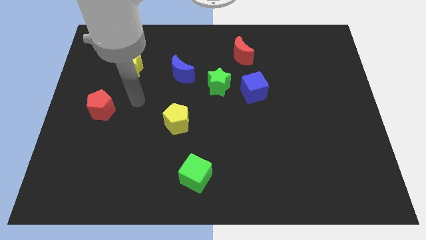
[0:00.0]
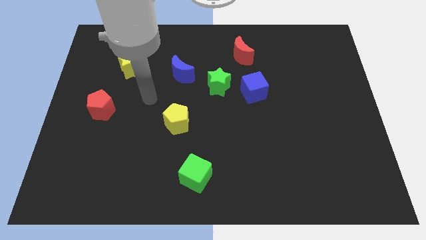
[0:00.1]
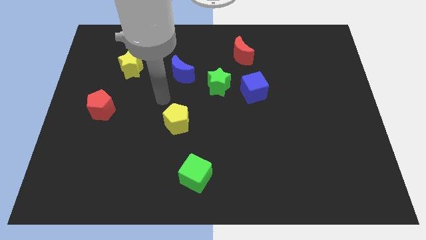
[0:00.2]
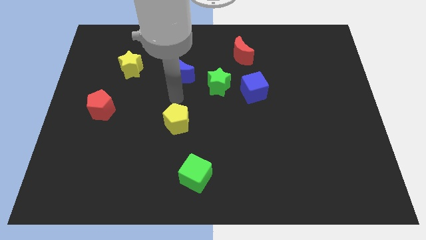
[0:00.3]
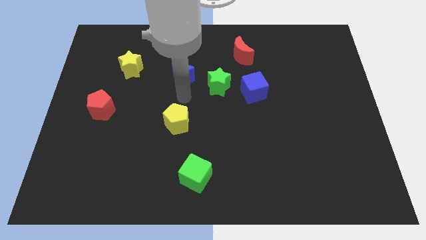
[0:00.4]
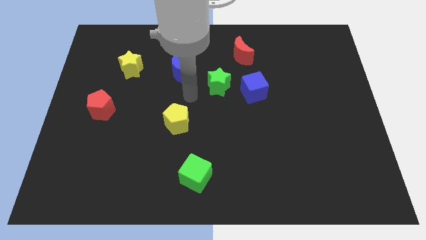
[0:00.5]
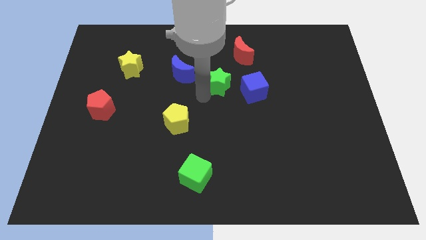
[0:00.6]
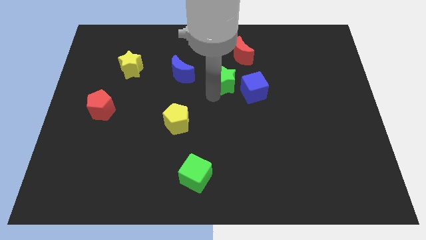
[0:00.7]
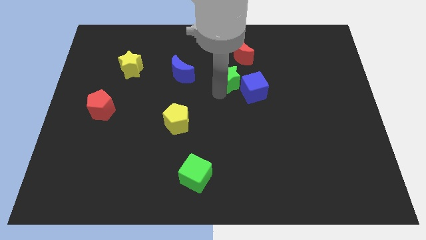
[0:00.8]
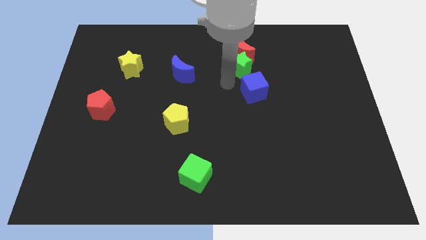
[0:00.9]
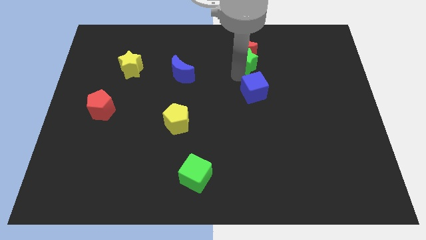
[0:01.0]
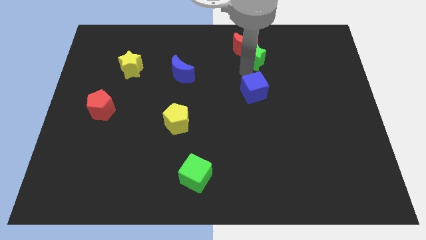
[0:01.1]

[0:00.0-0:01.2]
pull the blue cube apart from the green star

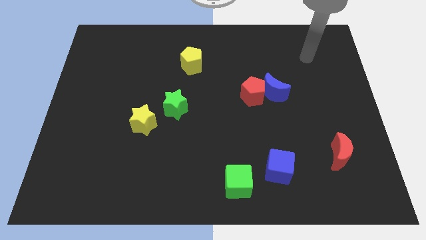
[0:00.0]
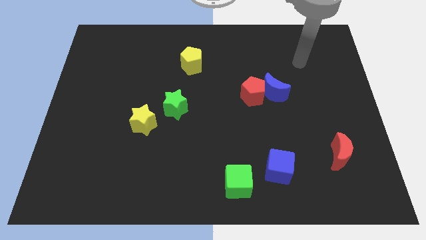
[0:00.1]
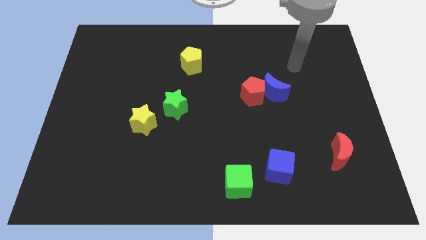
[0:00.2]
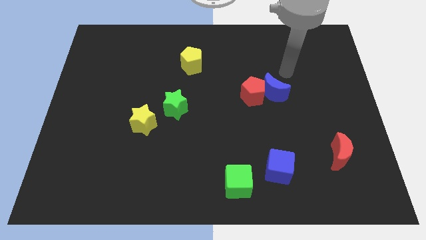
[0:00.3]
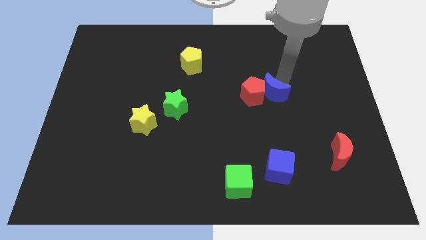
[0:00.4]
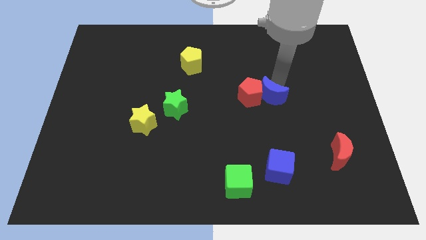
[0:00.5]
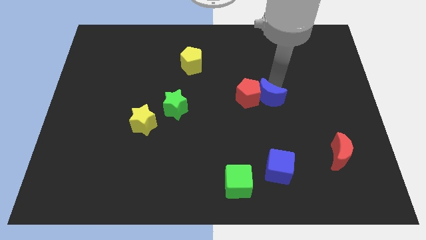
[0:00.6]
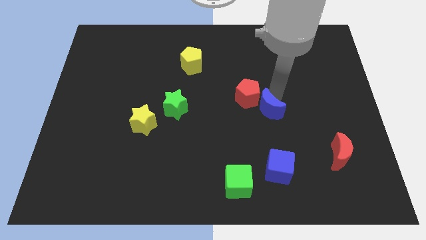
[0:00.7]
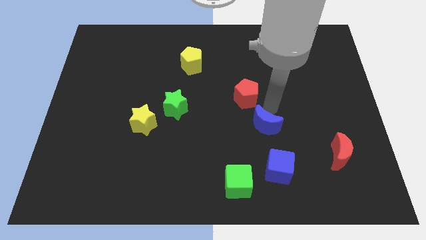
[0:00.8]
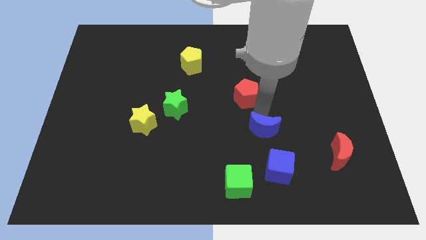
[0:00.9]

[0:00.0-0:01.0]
move the red pentagon away from the blue moon

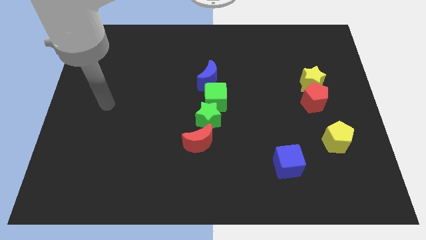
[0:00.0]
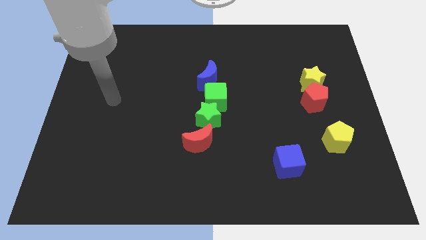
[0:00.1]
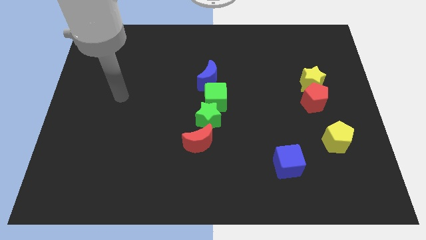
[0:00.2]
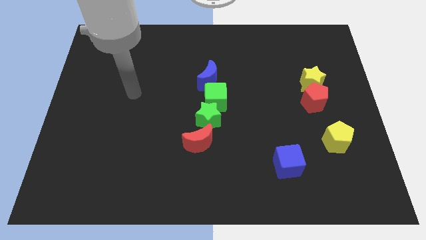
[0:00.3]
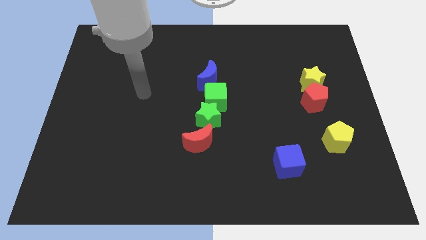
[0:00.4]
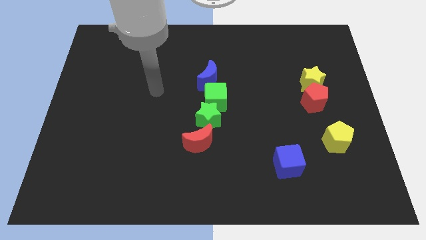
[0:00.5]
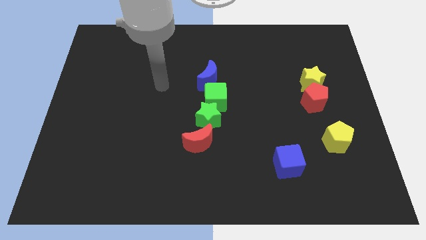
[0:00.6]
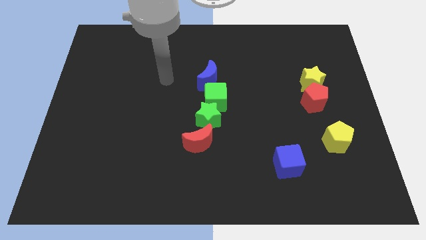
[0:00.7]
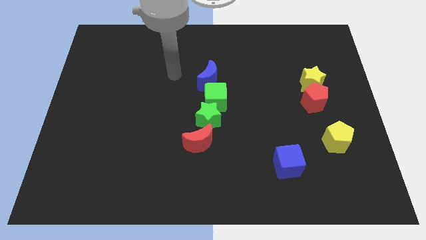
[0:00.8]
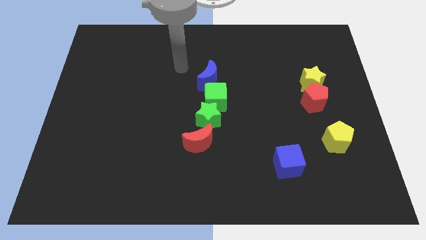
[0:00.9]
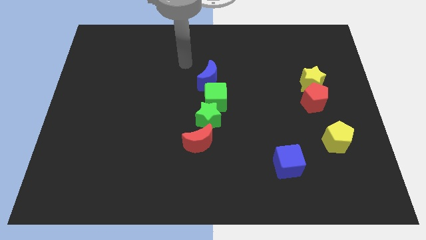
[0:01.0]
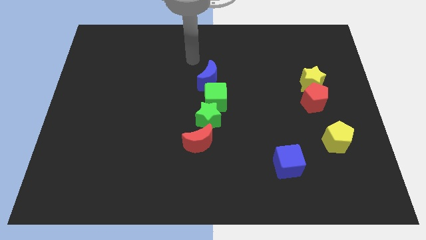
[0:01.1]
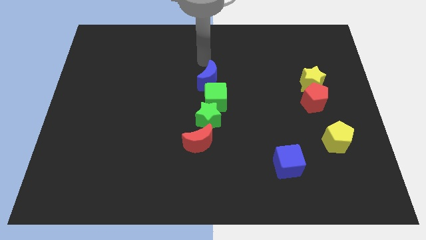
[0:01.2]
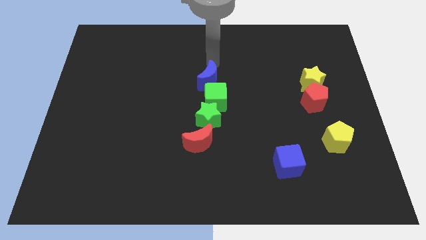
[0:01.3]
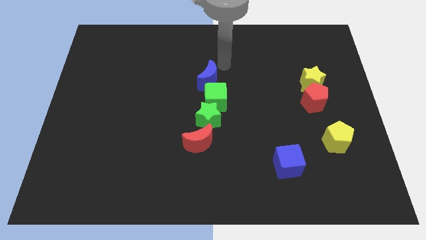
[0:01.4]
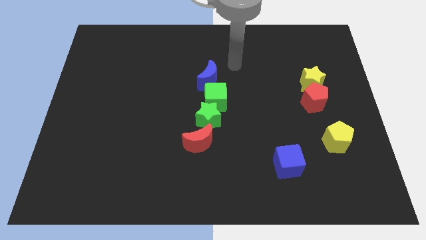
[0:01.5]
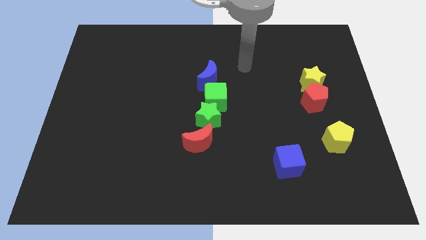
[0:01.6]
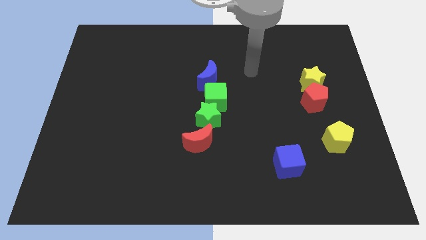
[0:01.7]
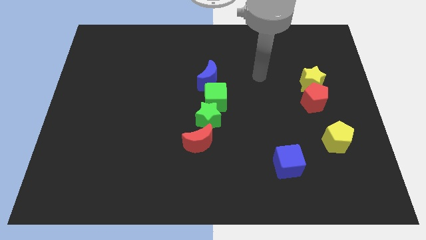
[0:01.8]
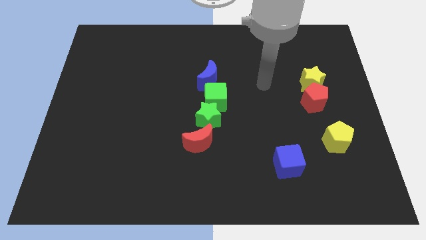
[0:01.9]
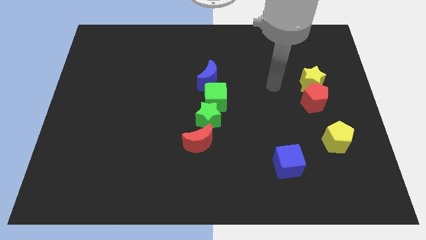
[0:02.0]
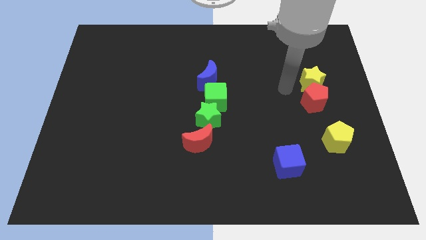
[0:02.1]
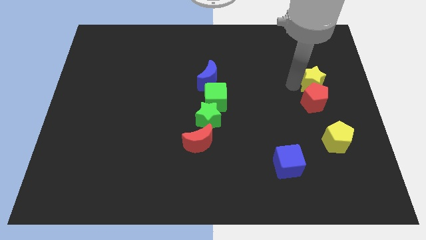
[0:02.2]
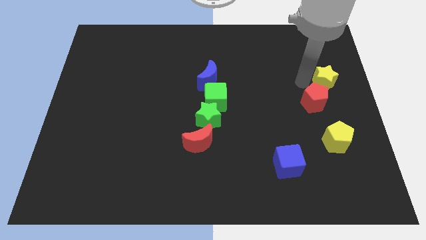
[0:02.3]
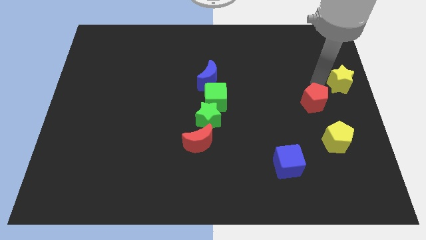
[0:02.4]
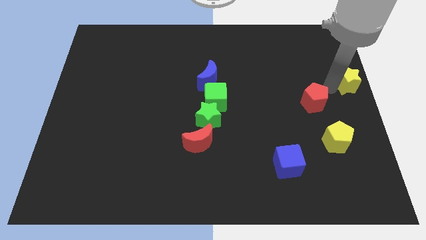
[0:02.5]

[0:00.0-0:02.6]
pull the red pentagon apart from the yellow star

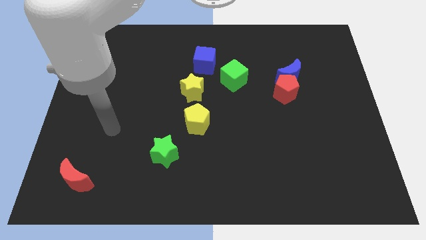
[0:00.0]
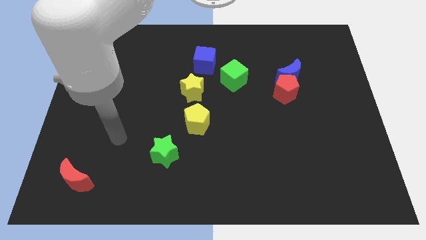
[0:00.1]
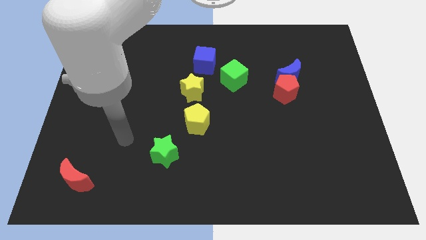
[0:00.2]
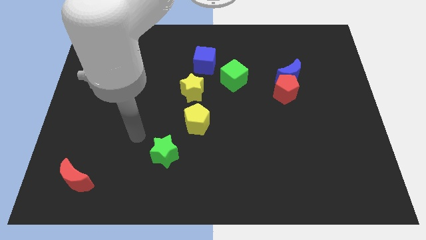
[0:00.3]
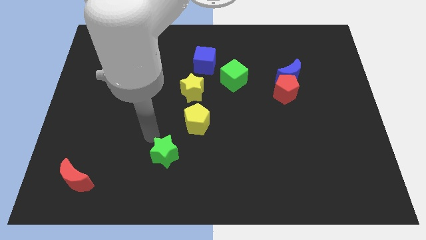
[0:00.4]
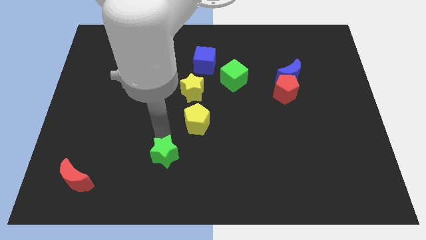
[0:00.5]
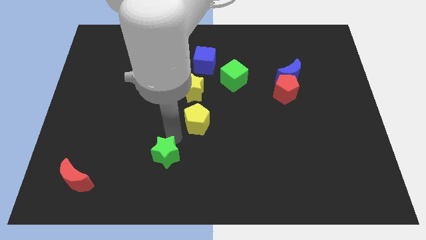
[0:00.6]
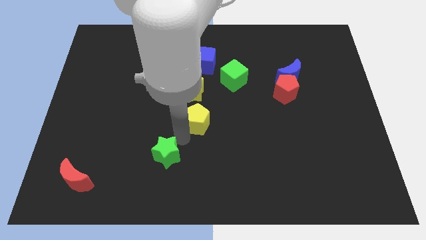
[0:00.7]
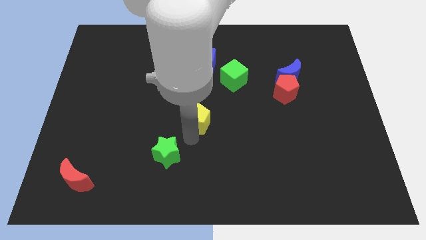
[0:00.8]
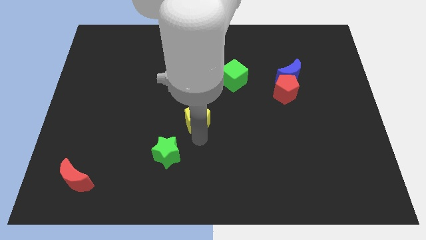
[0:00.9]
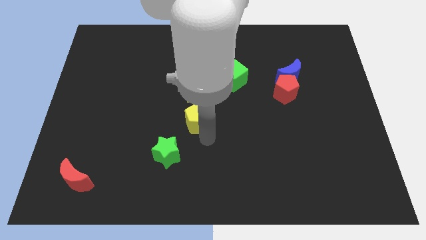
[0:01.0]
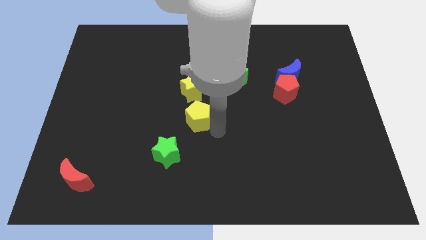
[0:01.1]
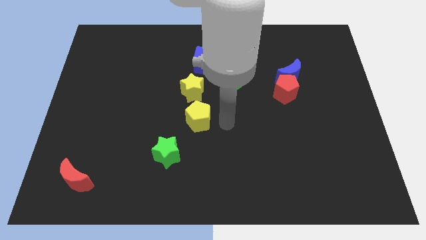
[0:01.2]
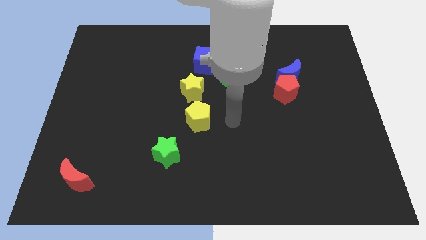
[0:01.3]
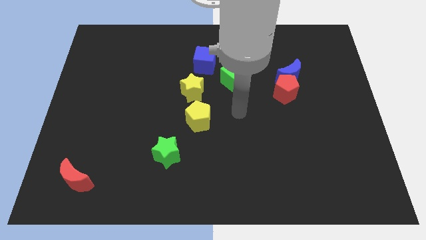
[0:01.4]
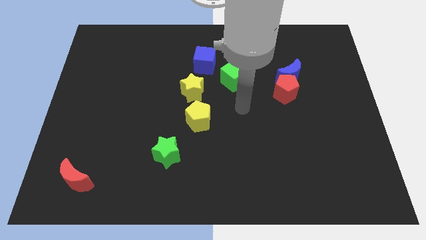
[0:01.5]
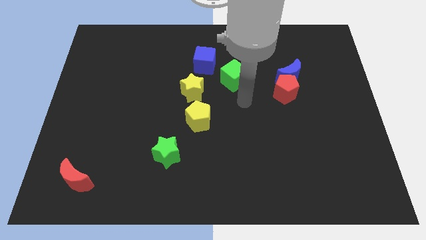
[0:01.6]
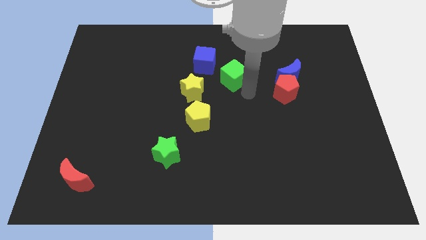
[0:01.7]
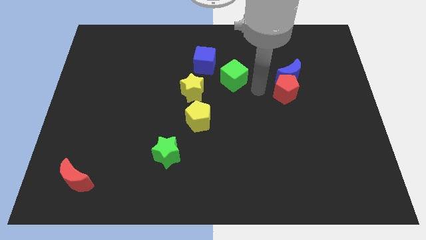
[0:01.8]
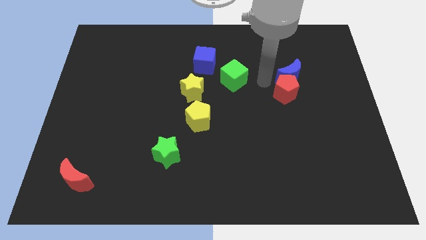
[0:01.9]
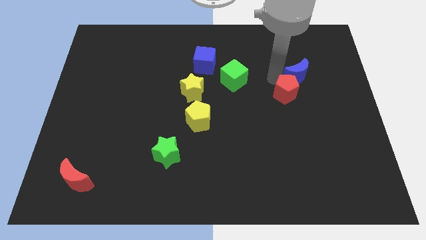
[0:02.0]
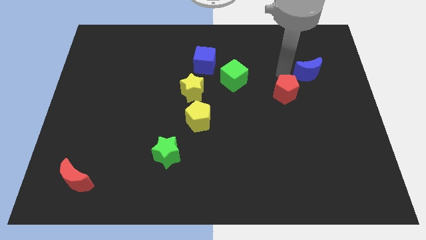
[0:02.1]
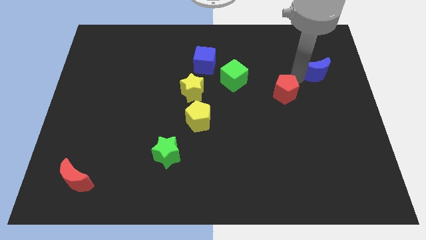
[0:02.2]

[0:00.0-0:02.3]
pull the red pentagon apart from the blue moon

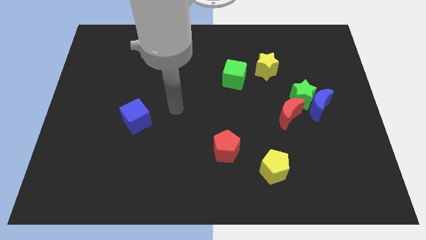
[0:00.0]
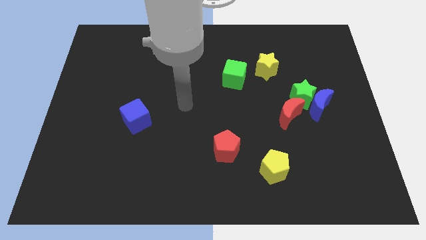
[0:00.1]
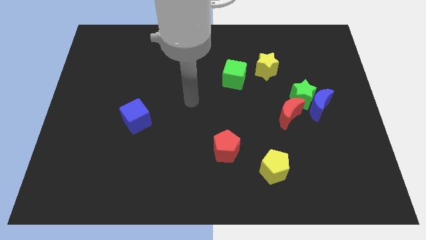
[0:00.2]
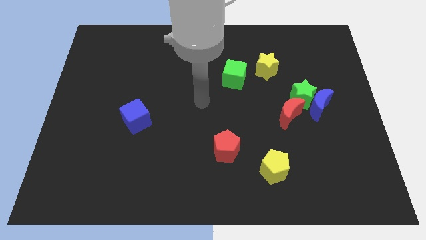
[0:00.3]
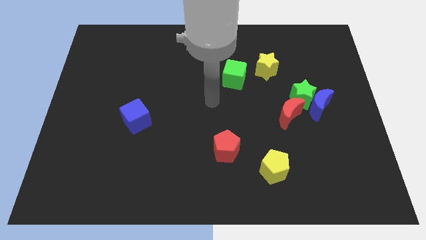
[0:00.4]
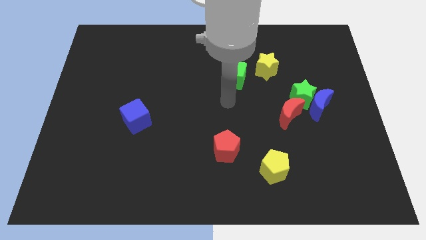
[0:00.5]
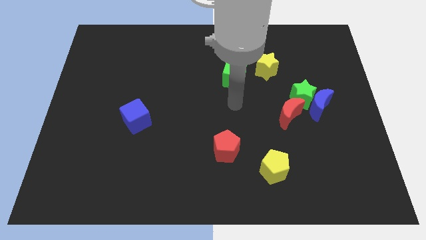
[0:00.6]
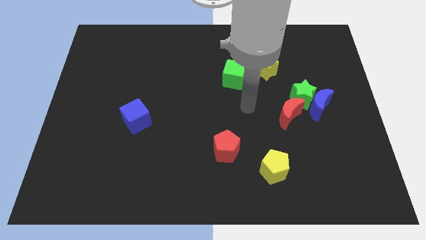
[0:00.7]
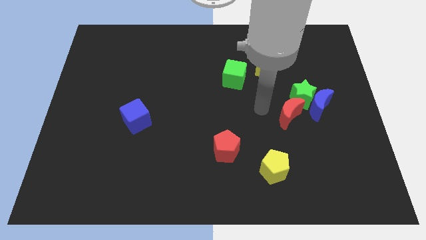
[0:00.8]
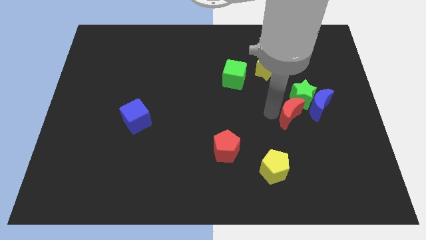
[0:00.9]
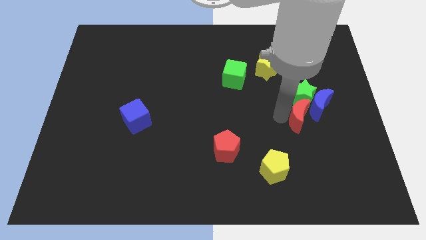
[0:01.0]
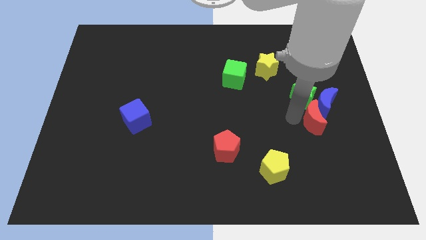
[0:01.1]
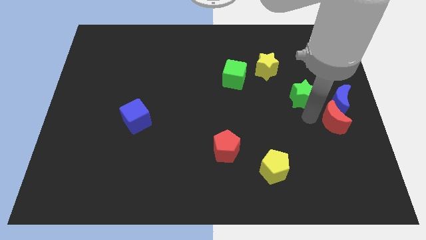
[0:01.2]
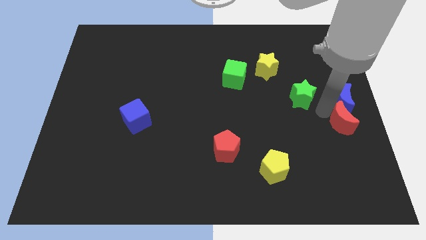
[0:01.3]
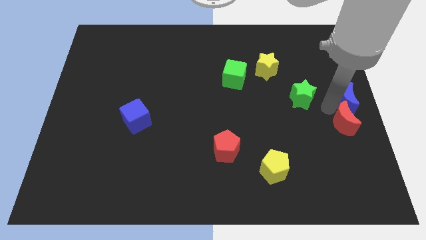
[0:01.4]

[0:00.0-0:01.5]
move the green star away from the blue moon and red moon

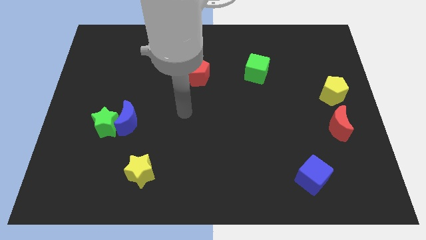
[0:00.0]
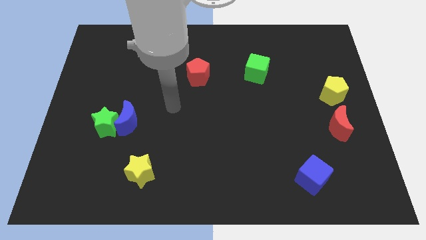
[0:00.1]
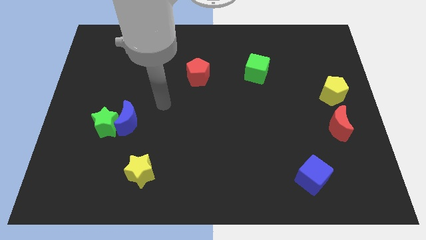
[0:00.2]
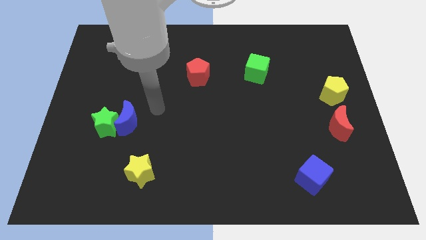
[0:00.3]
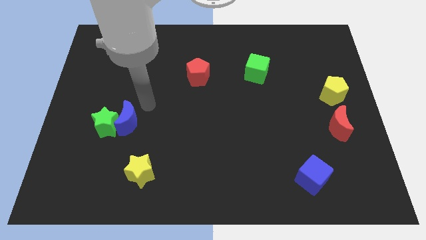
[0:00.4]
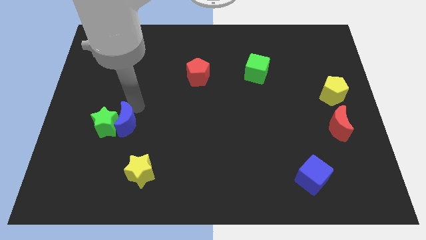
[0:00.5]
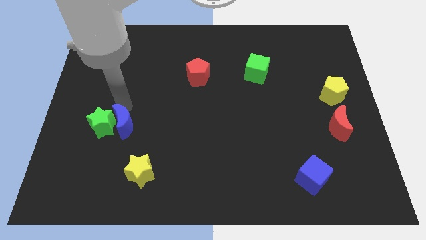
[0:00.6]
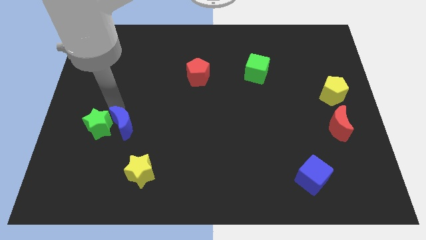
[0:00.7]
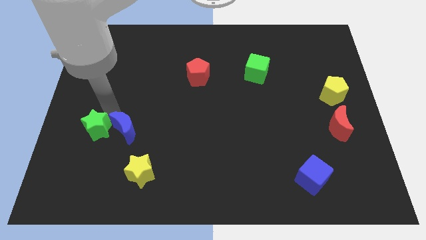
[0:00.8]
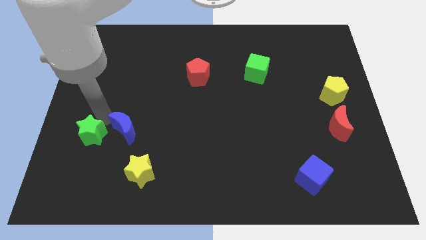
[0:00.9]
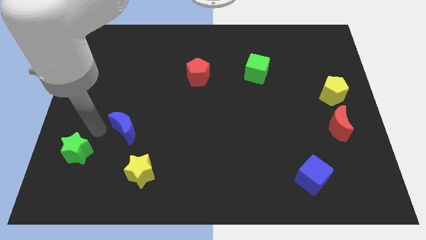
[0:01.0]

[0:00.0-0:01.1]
separate the blue moon from the green star
